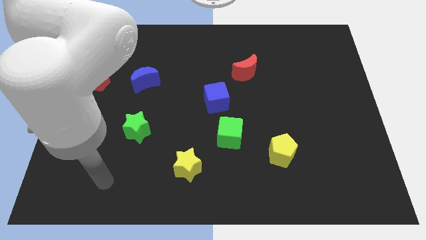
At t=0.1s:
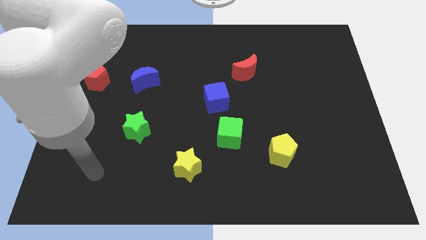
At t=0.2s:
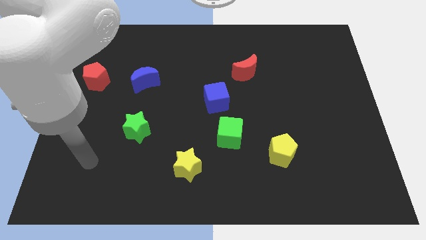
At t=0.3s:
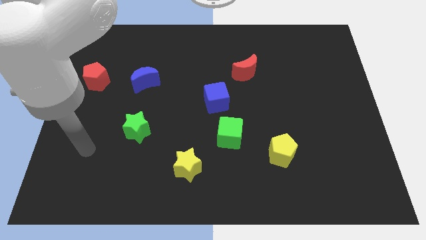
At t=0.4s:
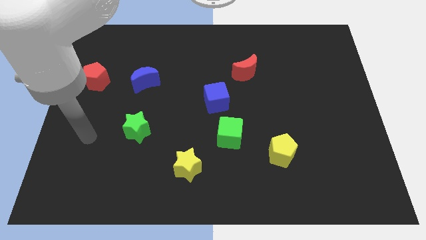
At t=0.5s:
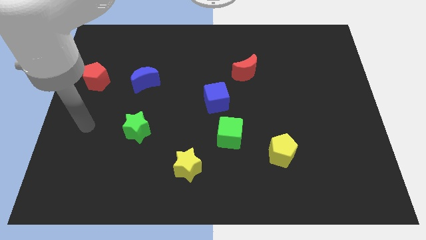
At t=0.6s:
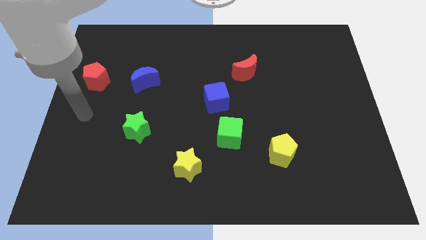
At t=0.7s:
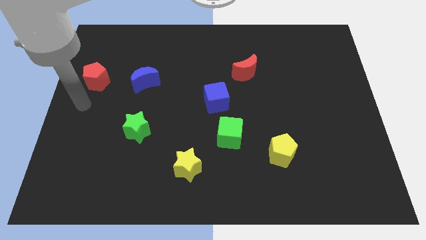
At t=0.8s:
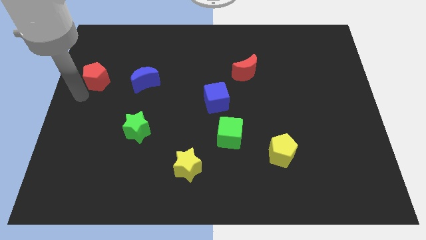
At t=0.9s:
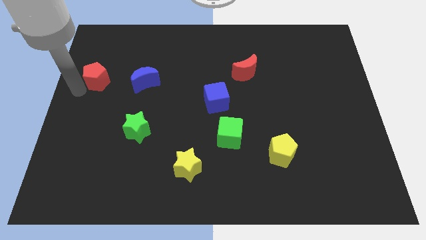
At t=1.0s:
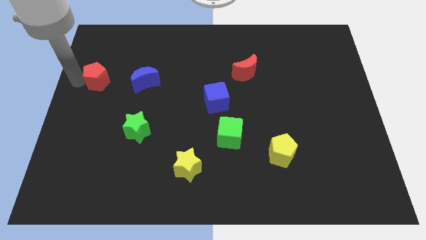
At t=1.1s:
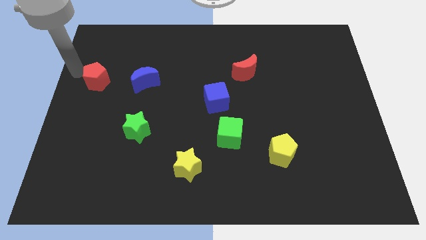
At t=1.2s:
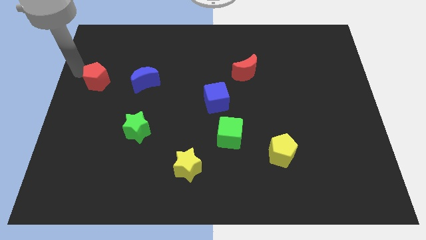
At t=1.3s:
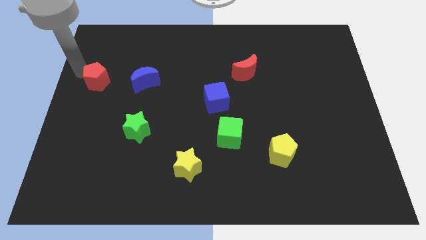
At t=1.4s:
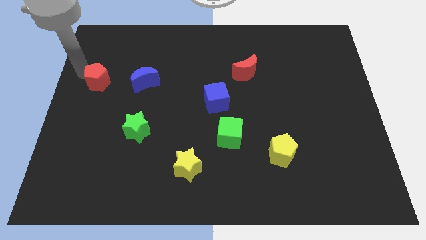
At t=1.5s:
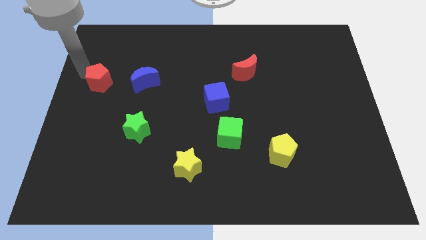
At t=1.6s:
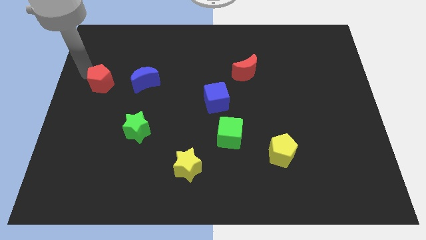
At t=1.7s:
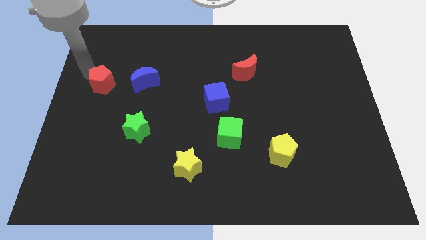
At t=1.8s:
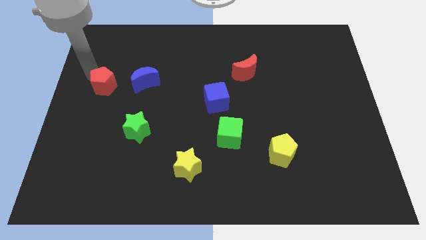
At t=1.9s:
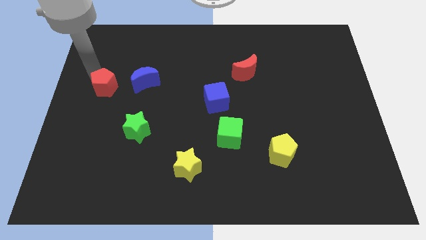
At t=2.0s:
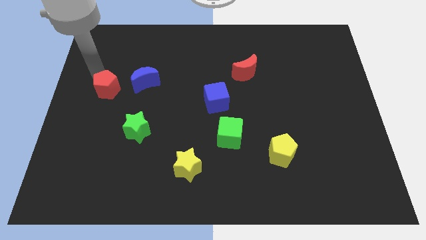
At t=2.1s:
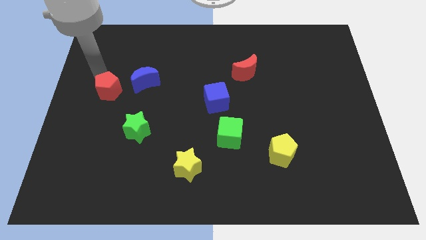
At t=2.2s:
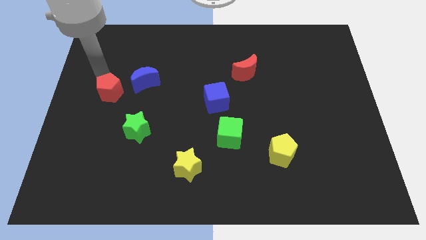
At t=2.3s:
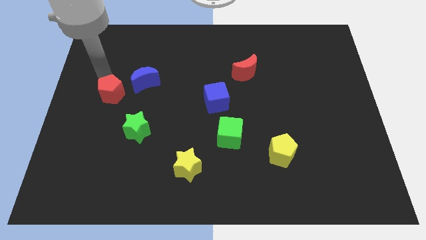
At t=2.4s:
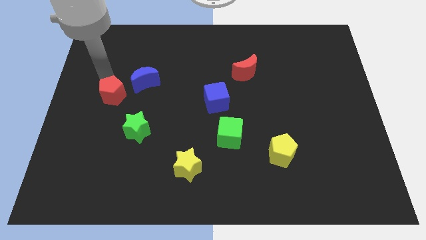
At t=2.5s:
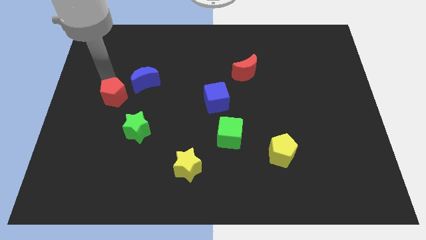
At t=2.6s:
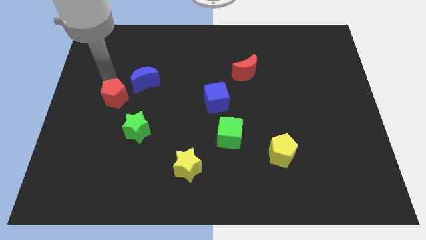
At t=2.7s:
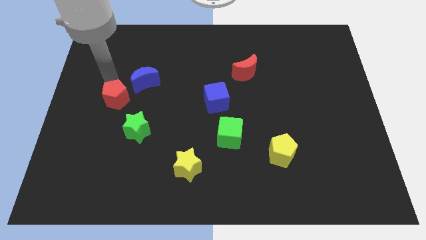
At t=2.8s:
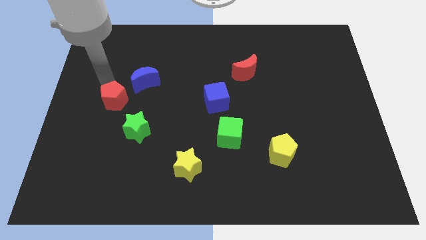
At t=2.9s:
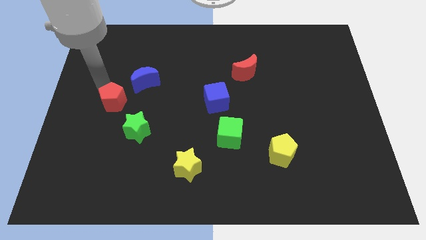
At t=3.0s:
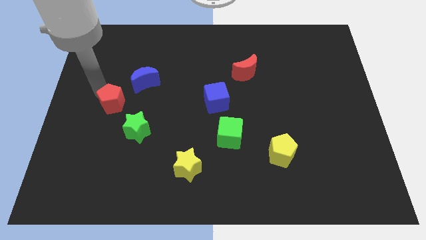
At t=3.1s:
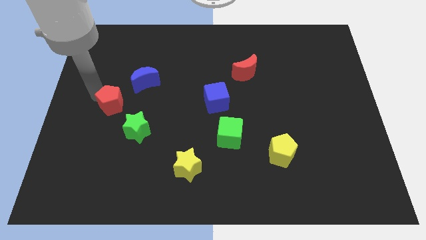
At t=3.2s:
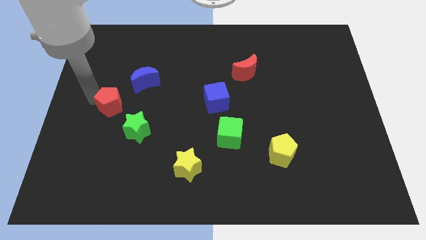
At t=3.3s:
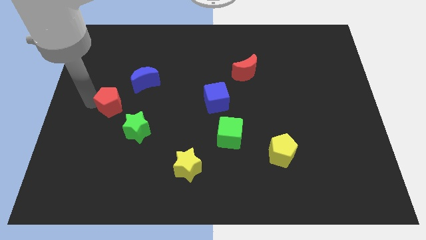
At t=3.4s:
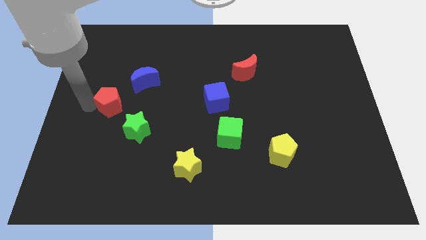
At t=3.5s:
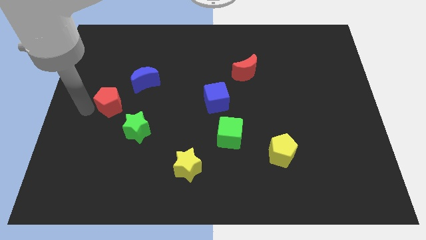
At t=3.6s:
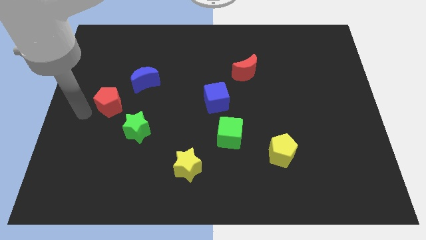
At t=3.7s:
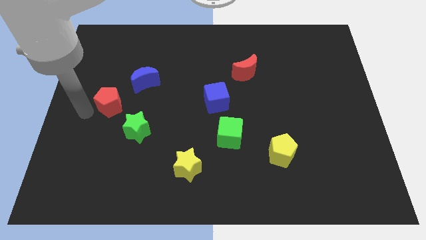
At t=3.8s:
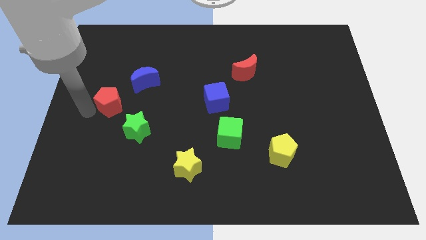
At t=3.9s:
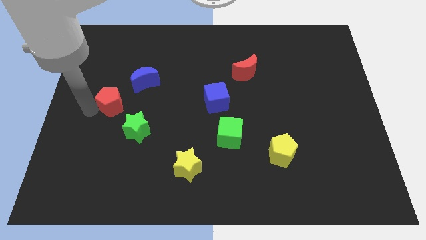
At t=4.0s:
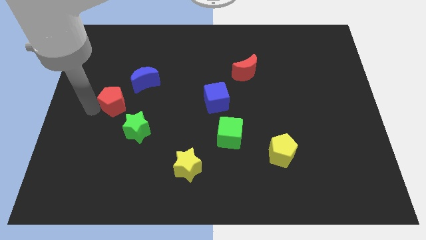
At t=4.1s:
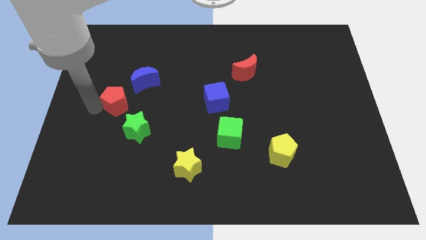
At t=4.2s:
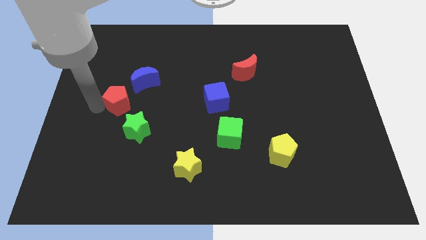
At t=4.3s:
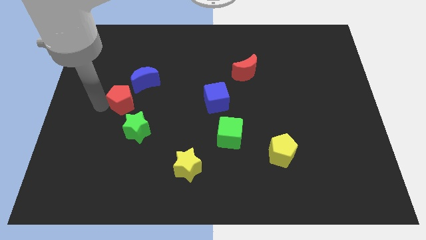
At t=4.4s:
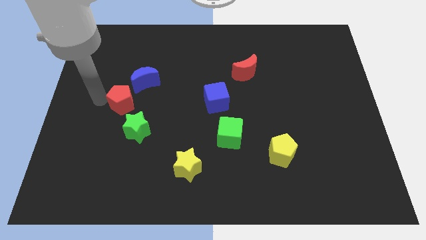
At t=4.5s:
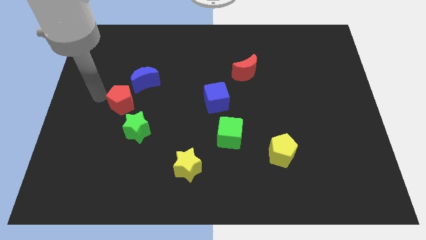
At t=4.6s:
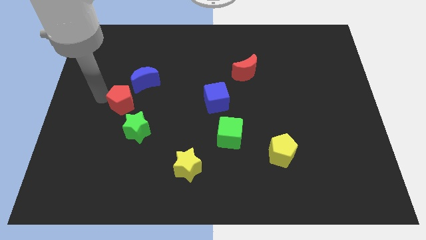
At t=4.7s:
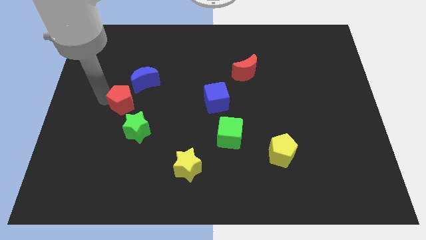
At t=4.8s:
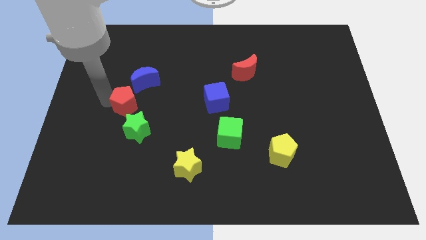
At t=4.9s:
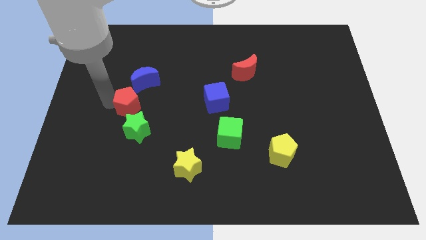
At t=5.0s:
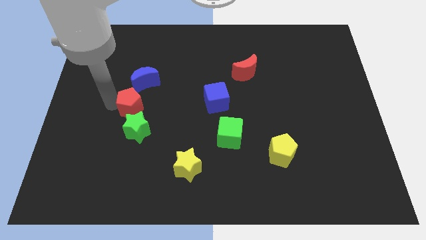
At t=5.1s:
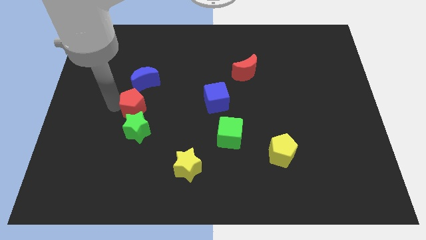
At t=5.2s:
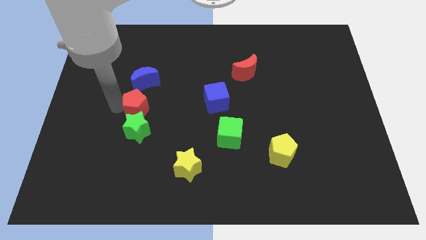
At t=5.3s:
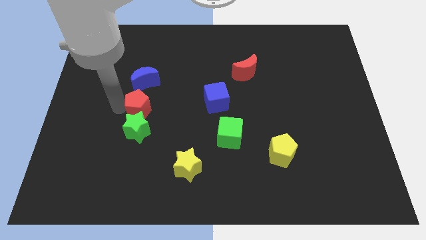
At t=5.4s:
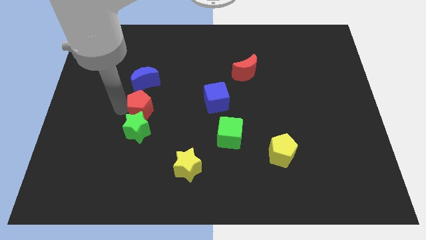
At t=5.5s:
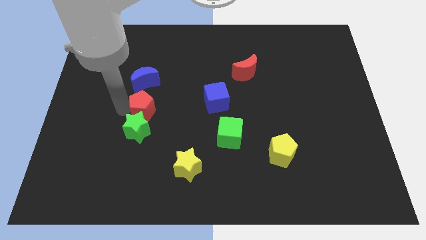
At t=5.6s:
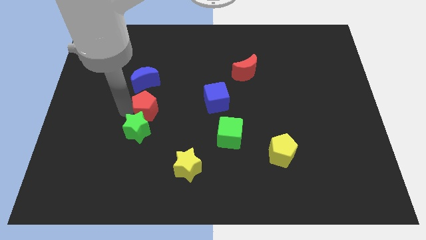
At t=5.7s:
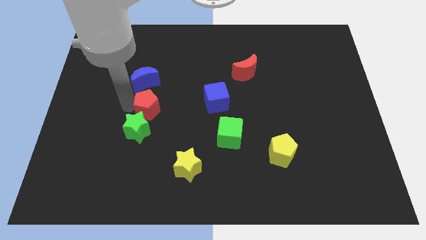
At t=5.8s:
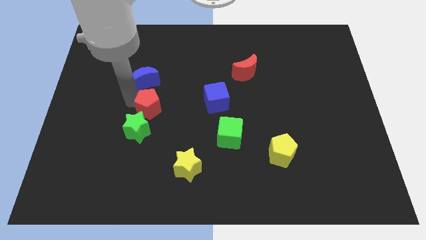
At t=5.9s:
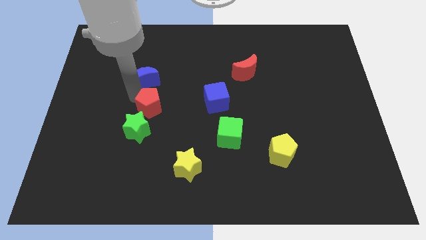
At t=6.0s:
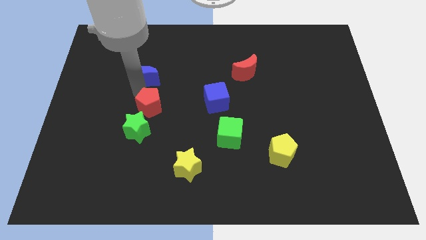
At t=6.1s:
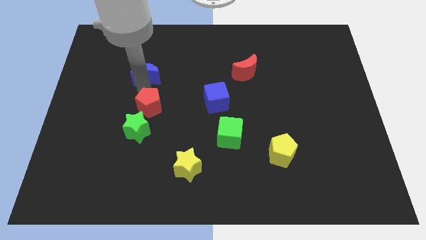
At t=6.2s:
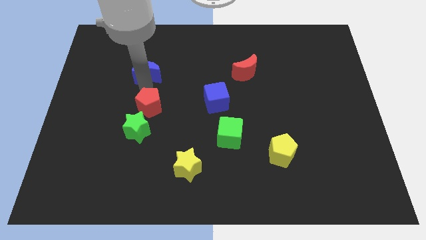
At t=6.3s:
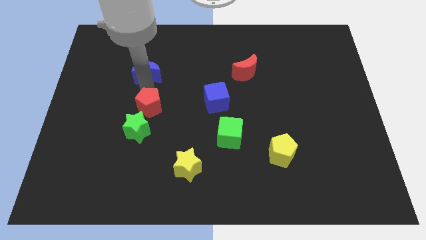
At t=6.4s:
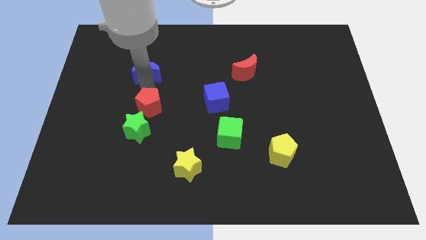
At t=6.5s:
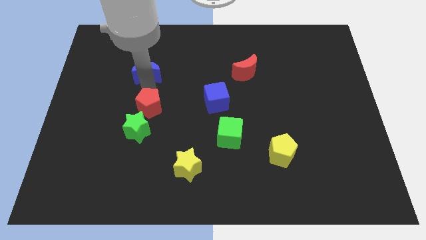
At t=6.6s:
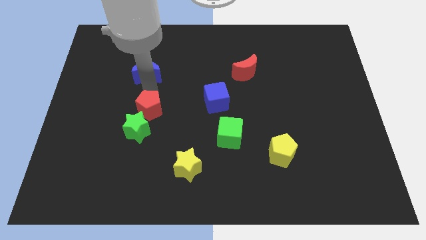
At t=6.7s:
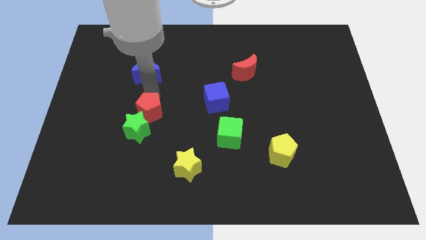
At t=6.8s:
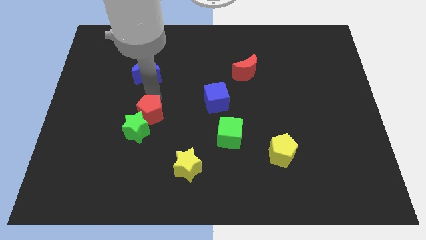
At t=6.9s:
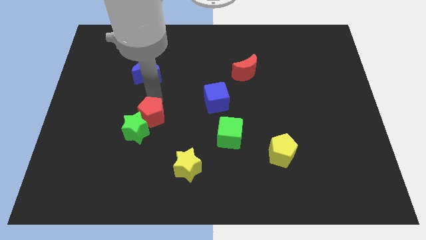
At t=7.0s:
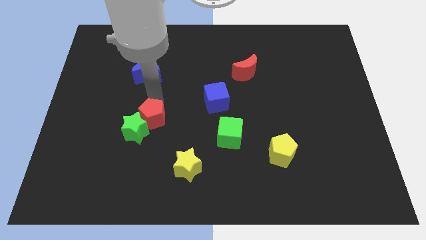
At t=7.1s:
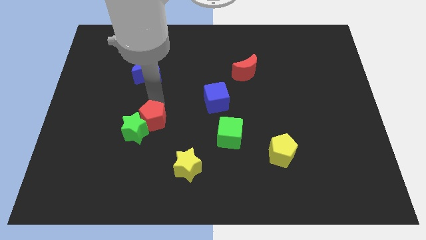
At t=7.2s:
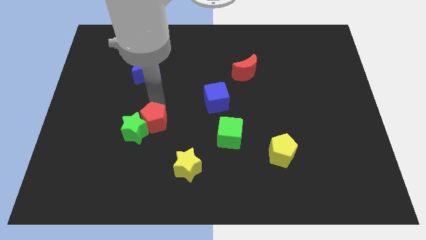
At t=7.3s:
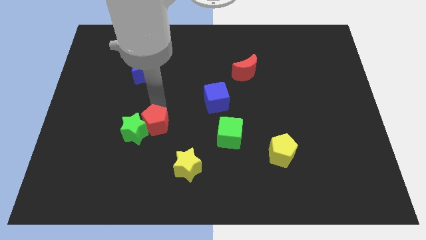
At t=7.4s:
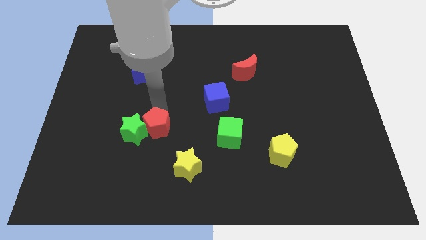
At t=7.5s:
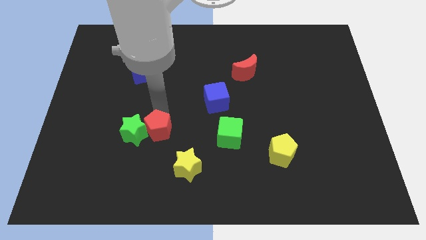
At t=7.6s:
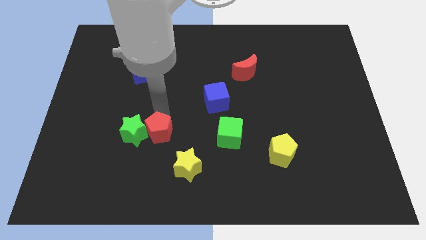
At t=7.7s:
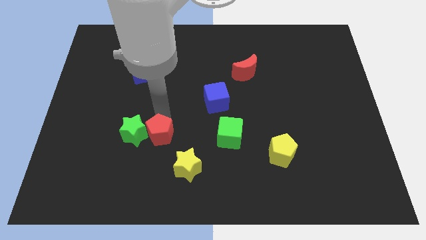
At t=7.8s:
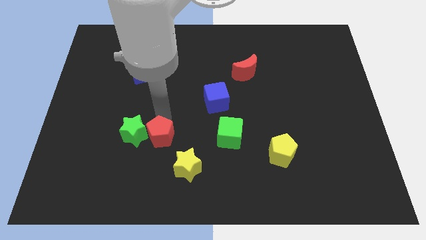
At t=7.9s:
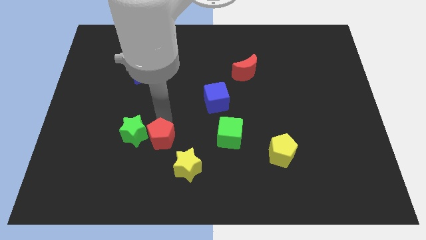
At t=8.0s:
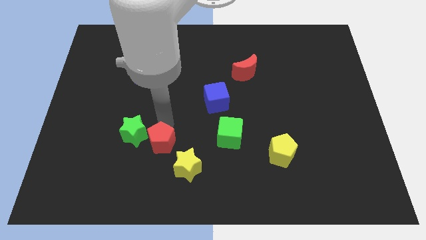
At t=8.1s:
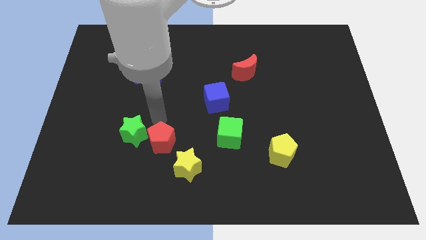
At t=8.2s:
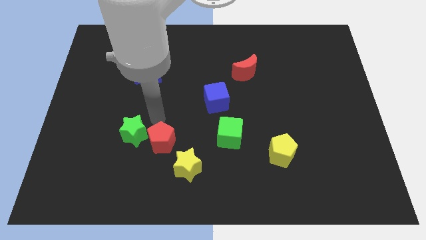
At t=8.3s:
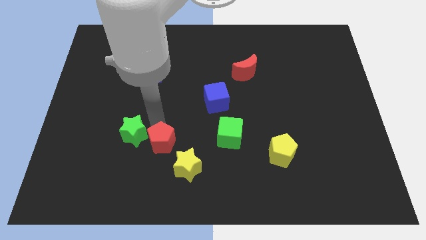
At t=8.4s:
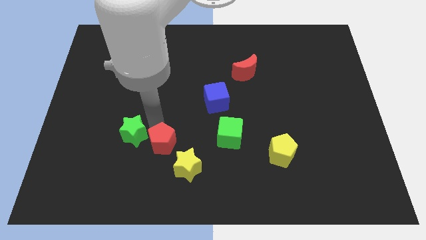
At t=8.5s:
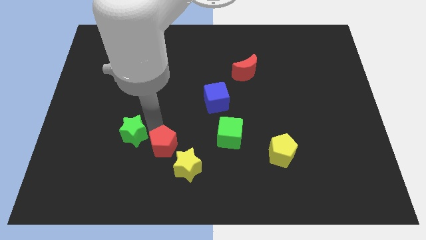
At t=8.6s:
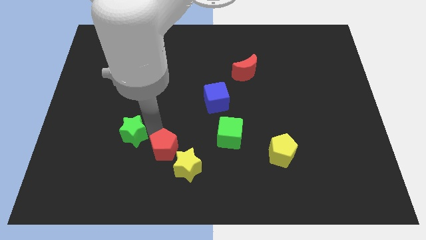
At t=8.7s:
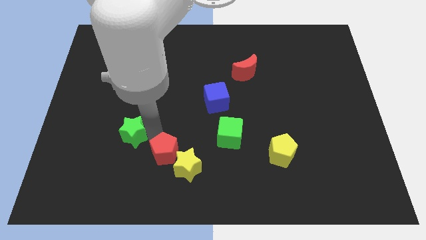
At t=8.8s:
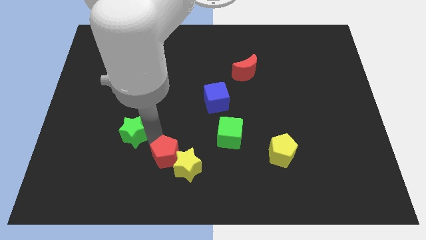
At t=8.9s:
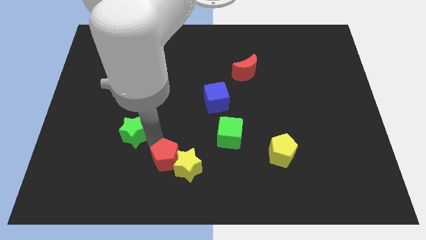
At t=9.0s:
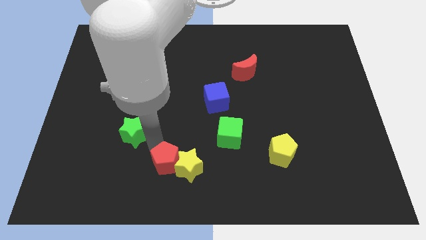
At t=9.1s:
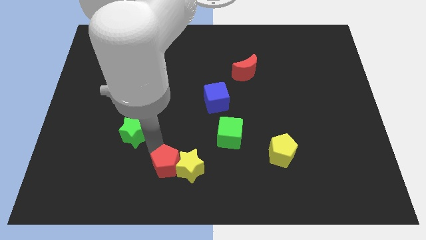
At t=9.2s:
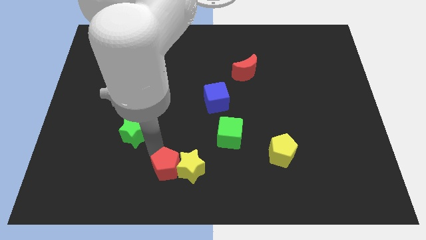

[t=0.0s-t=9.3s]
push the red pentagon to the bottom
